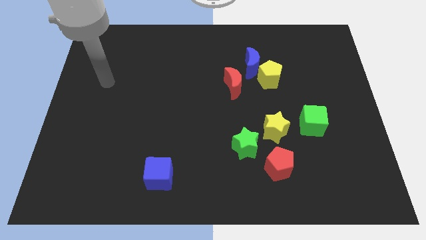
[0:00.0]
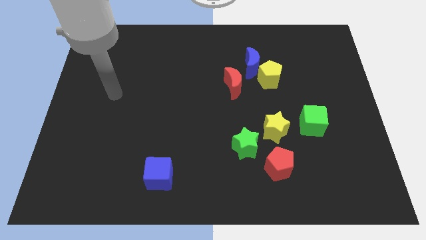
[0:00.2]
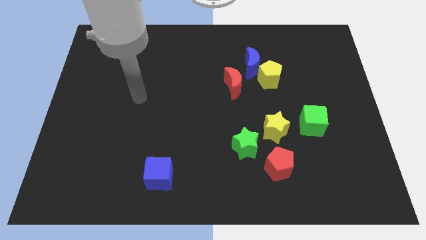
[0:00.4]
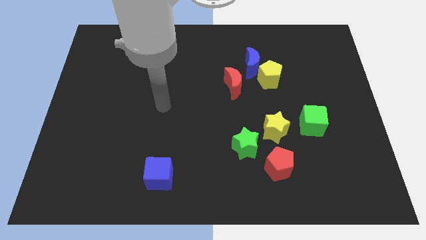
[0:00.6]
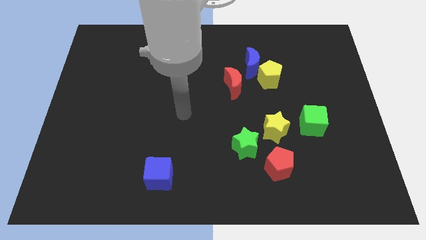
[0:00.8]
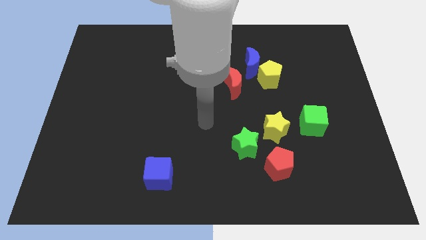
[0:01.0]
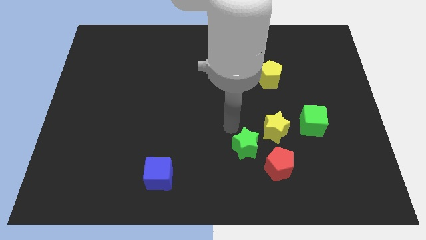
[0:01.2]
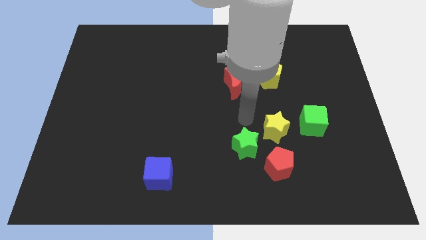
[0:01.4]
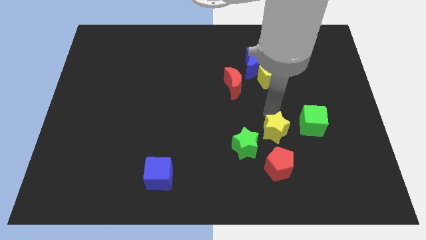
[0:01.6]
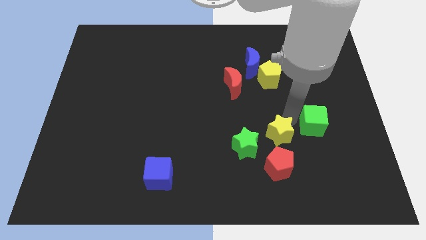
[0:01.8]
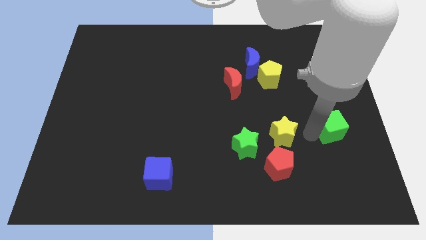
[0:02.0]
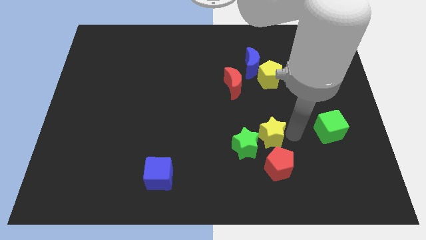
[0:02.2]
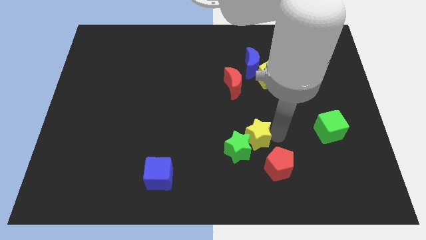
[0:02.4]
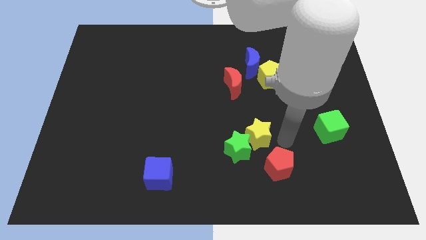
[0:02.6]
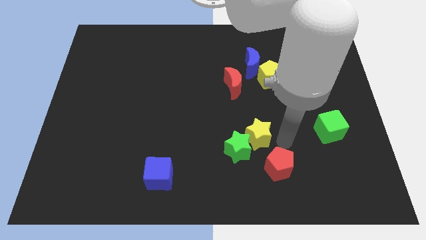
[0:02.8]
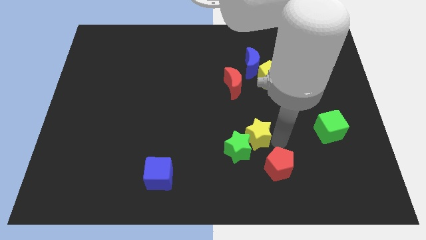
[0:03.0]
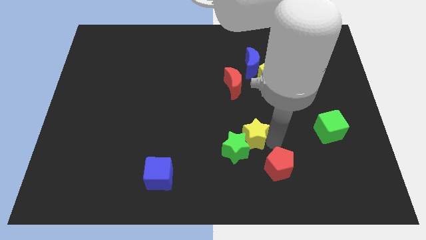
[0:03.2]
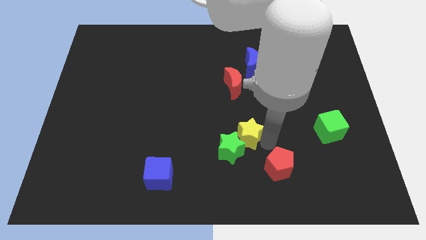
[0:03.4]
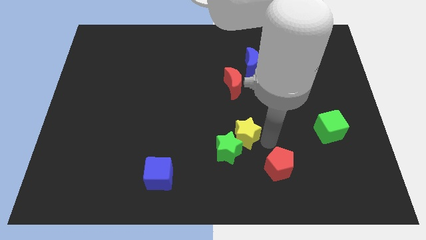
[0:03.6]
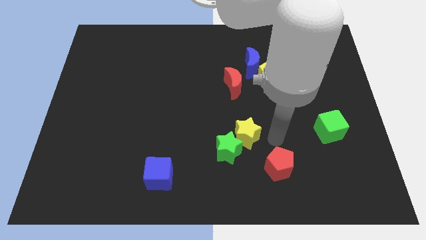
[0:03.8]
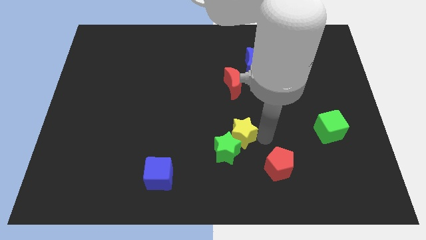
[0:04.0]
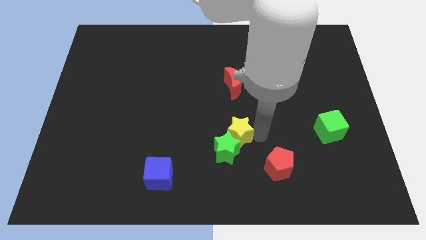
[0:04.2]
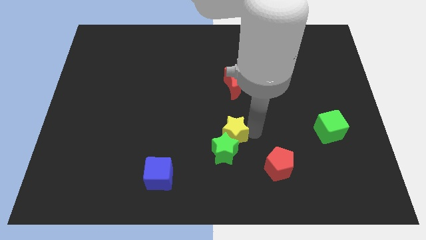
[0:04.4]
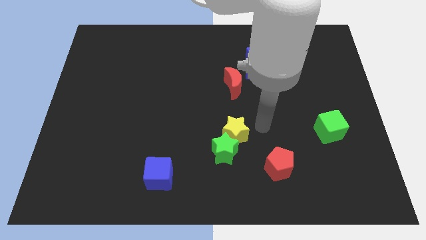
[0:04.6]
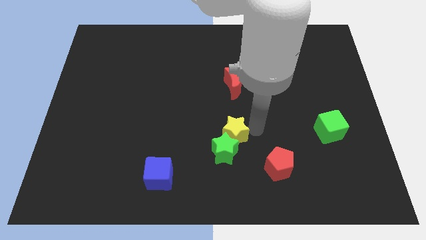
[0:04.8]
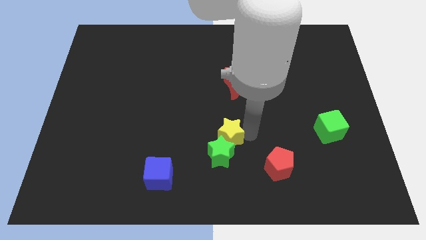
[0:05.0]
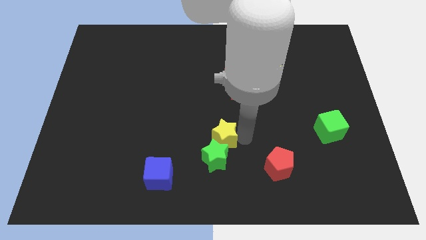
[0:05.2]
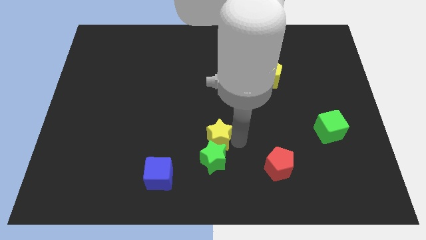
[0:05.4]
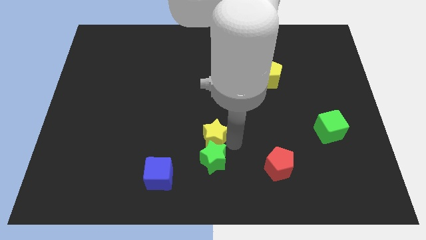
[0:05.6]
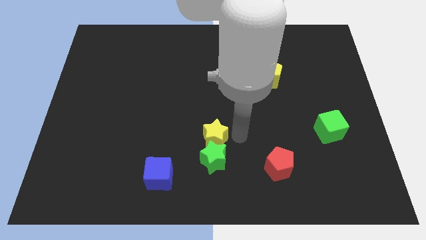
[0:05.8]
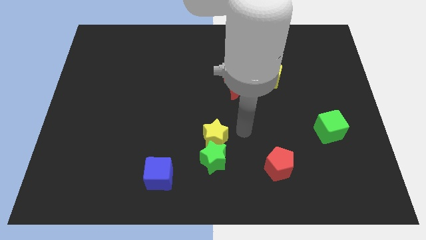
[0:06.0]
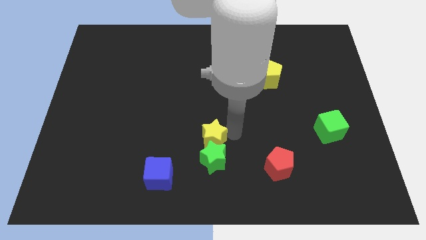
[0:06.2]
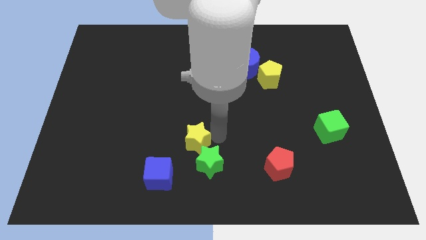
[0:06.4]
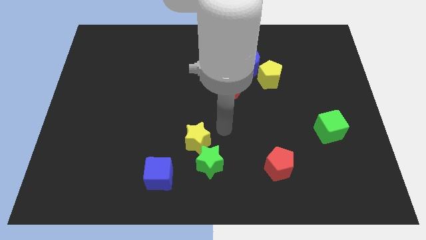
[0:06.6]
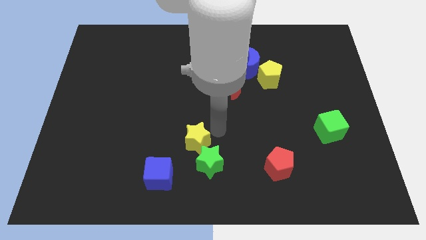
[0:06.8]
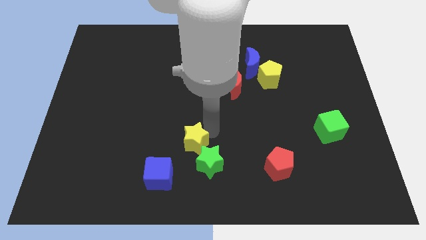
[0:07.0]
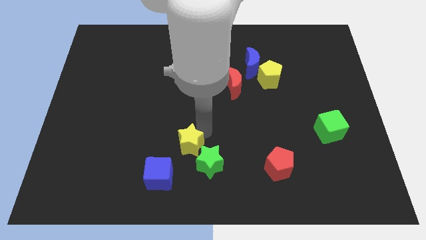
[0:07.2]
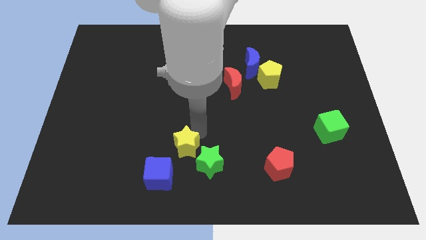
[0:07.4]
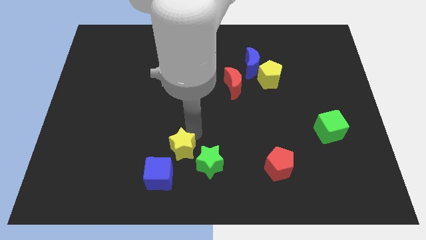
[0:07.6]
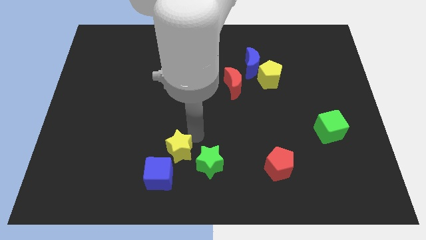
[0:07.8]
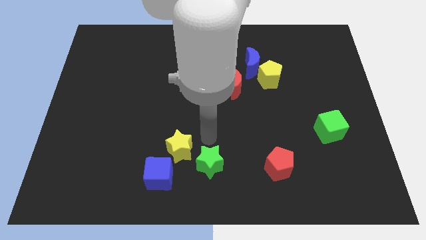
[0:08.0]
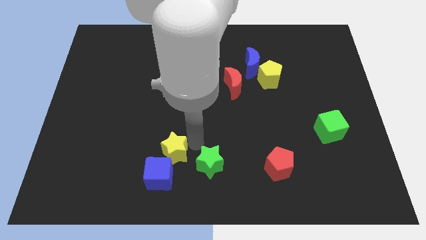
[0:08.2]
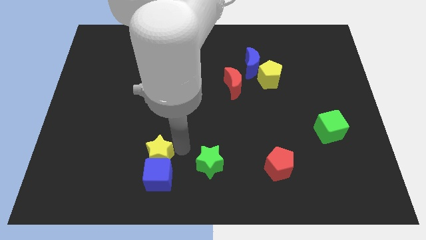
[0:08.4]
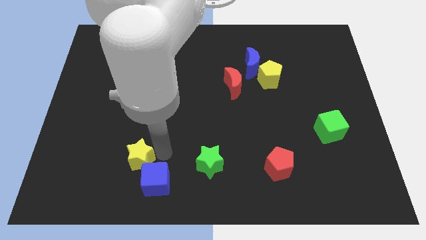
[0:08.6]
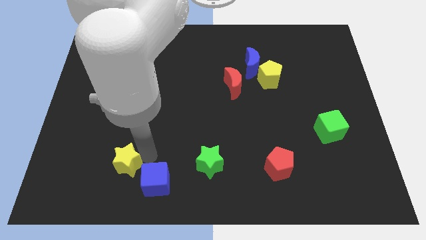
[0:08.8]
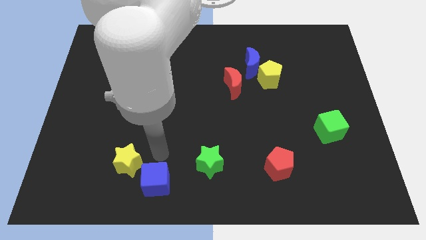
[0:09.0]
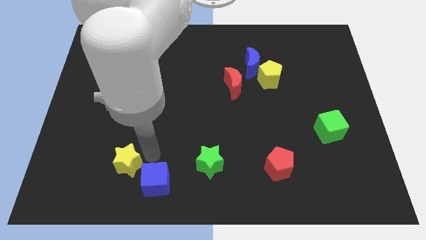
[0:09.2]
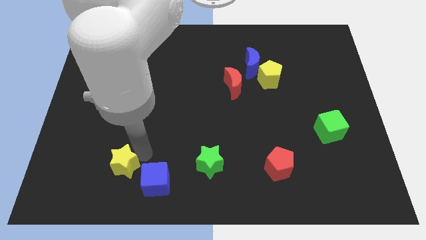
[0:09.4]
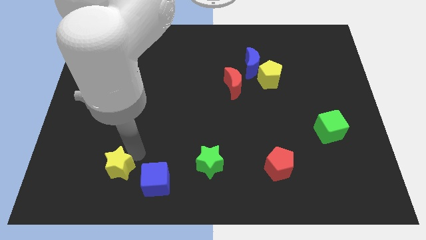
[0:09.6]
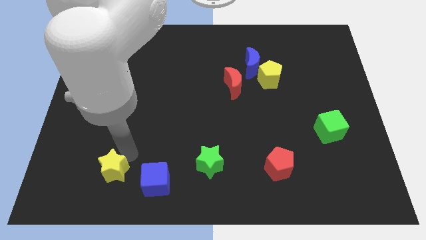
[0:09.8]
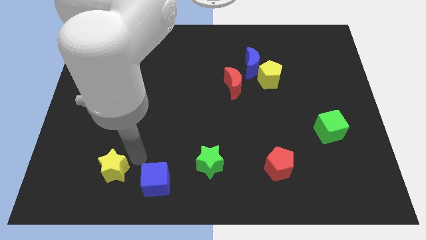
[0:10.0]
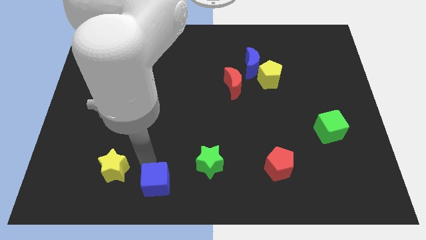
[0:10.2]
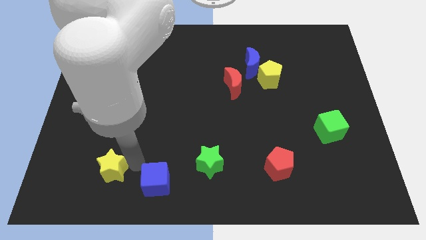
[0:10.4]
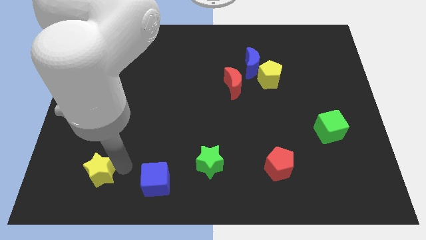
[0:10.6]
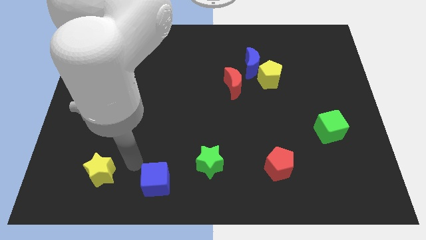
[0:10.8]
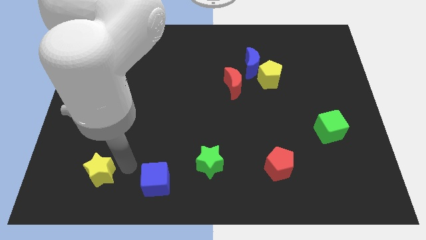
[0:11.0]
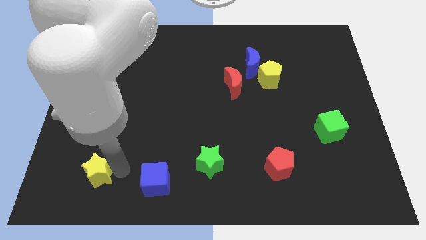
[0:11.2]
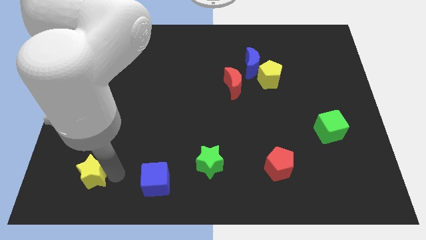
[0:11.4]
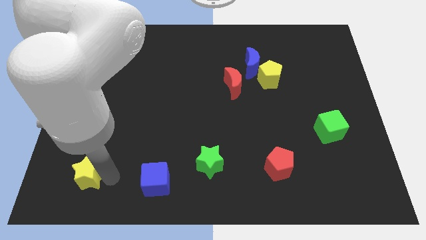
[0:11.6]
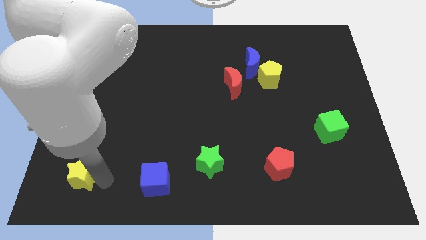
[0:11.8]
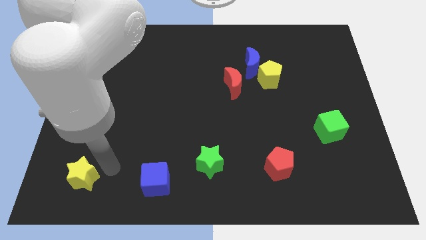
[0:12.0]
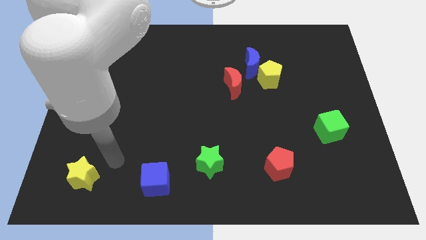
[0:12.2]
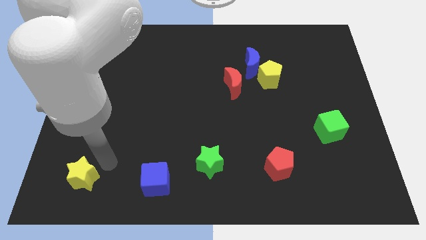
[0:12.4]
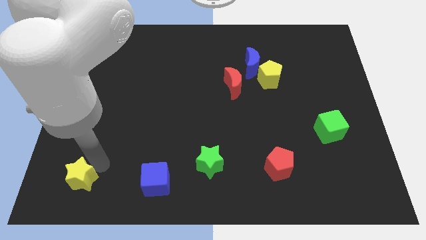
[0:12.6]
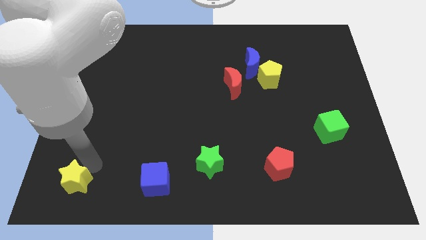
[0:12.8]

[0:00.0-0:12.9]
push the yellow star to the lower left corner

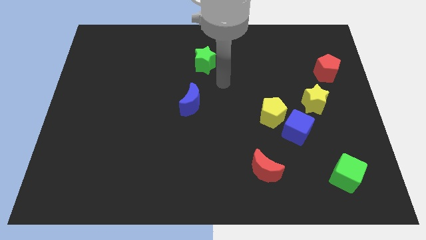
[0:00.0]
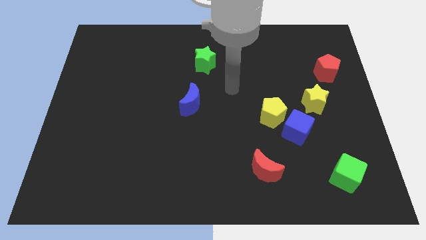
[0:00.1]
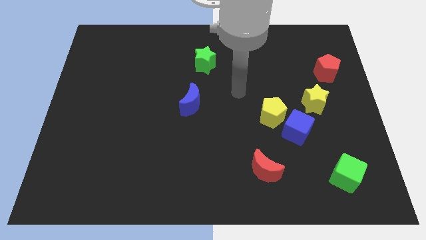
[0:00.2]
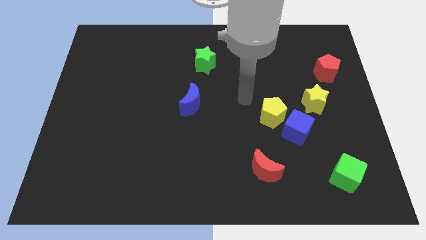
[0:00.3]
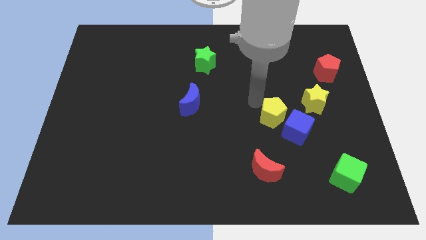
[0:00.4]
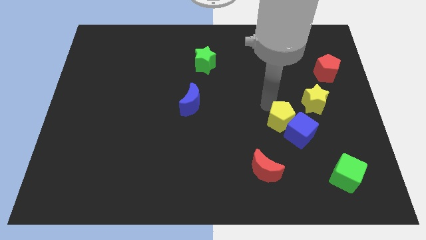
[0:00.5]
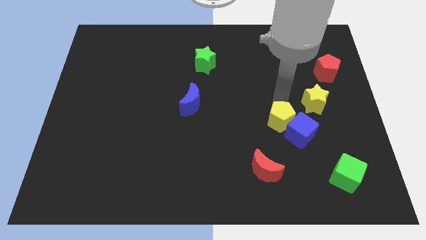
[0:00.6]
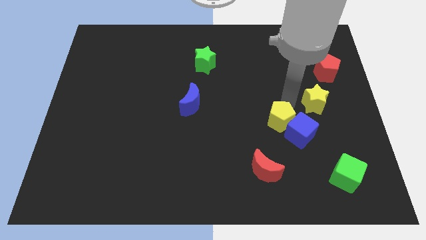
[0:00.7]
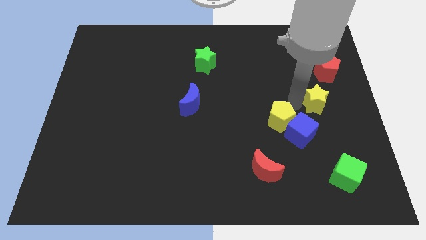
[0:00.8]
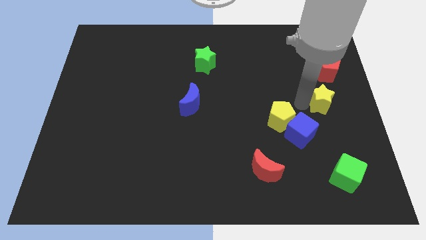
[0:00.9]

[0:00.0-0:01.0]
put the yellow star to the center right
